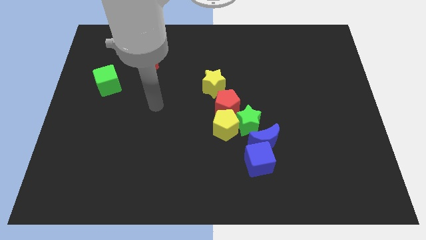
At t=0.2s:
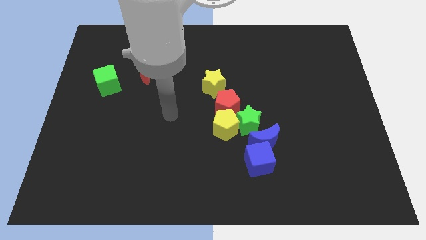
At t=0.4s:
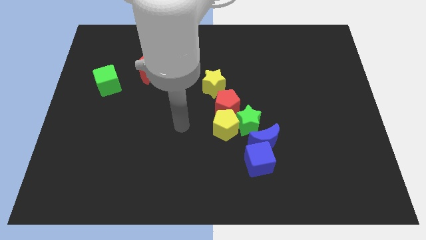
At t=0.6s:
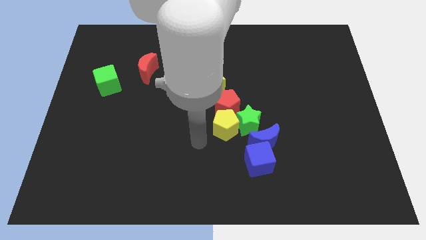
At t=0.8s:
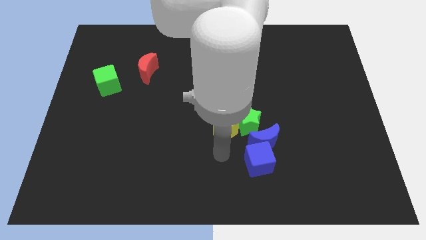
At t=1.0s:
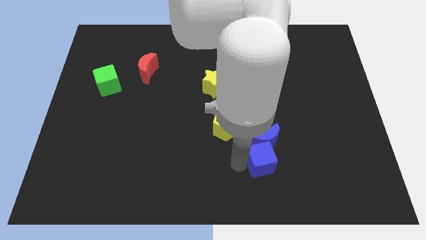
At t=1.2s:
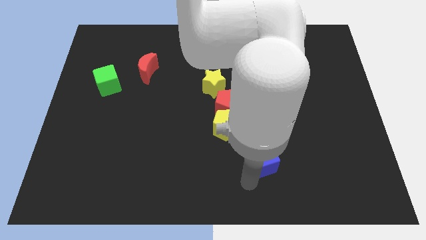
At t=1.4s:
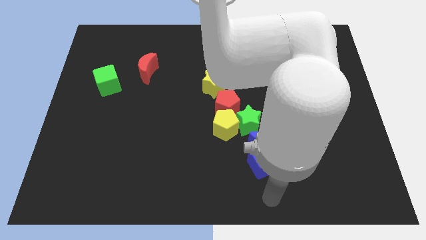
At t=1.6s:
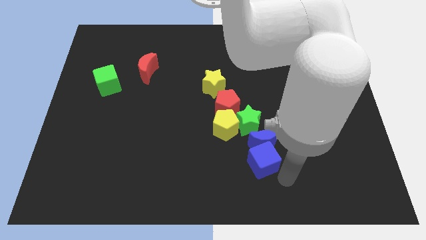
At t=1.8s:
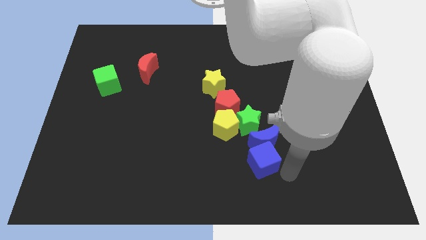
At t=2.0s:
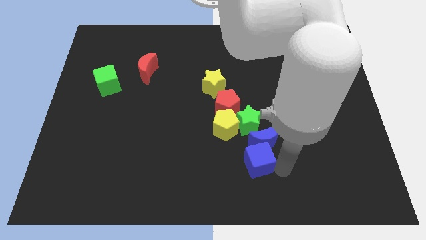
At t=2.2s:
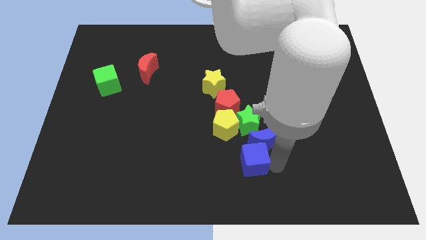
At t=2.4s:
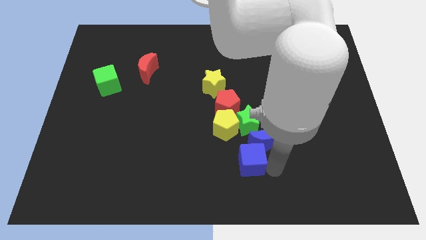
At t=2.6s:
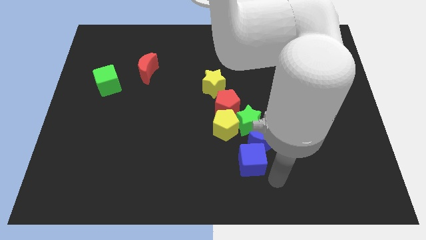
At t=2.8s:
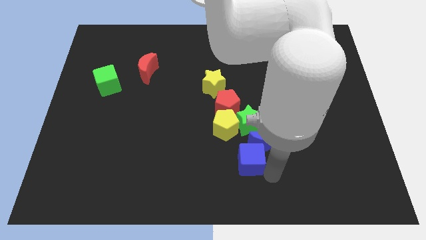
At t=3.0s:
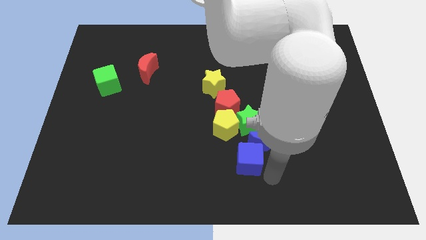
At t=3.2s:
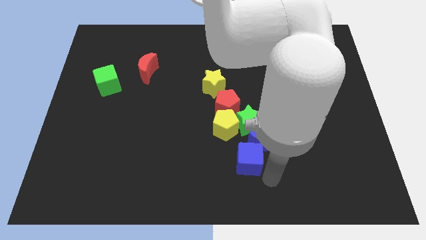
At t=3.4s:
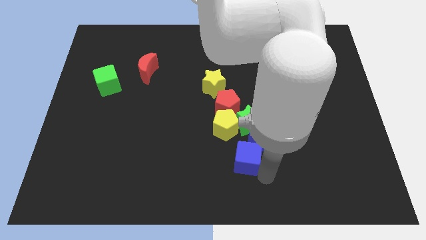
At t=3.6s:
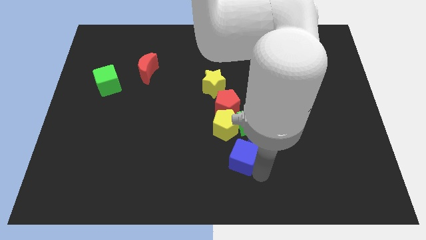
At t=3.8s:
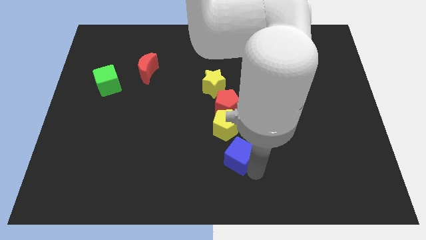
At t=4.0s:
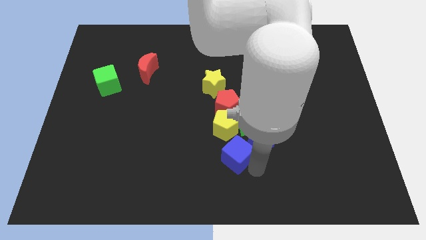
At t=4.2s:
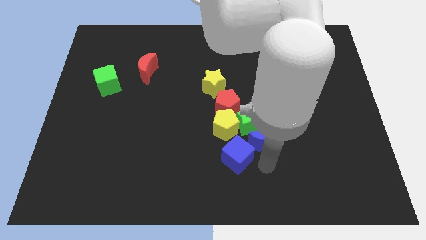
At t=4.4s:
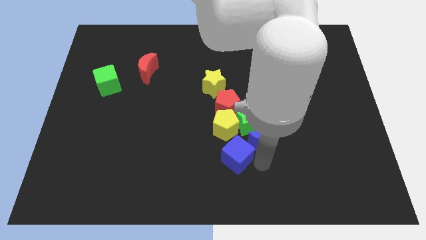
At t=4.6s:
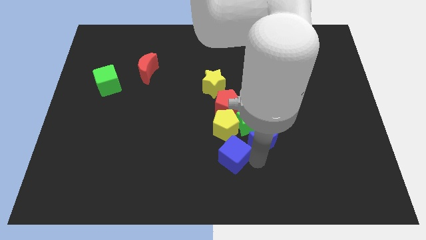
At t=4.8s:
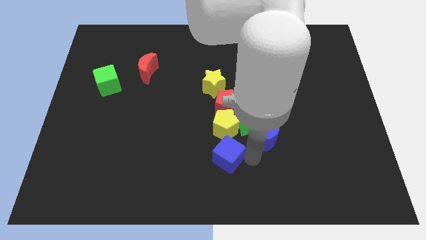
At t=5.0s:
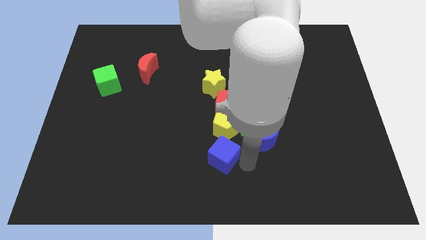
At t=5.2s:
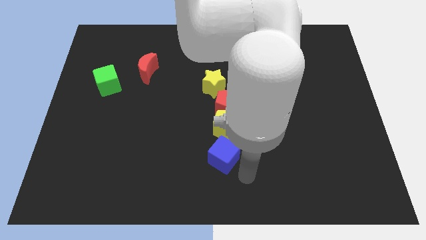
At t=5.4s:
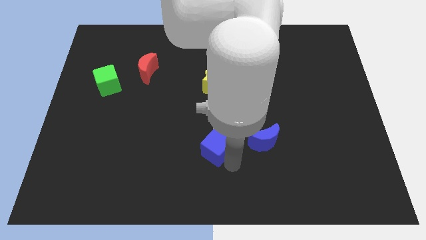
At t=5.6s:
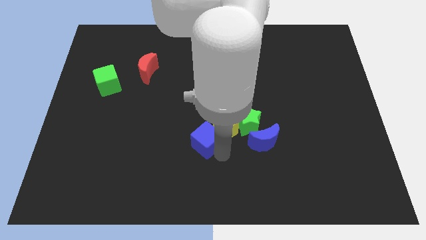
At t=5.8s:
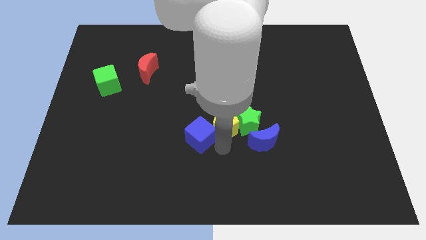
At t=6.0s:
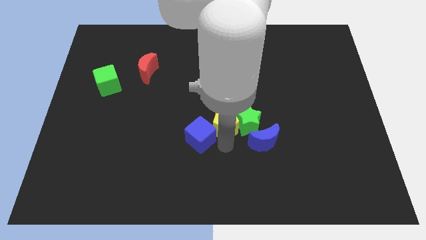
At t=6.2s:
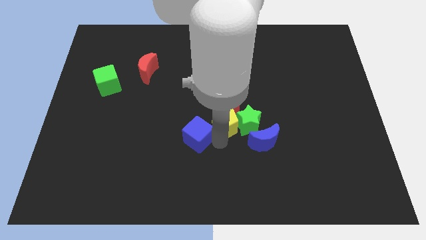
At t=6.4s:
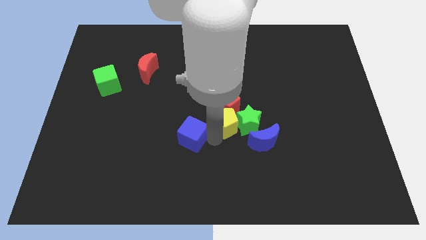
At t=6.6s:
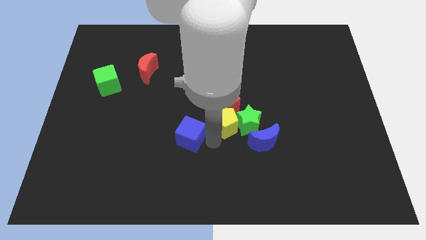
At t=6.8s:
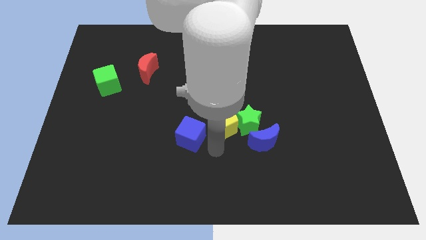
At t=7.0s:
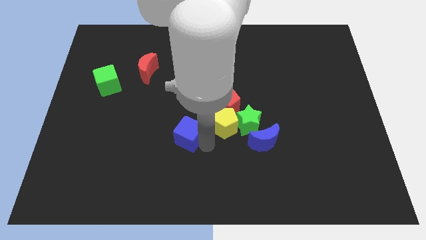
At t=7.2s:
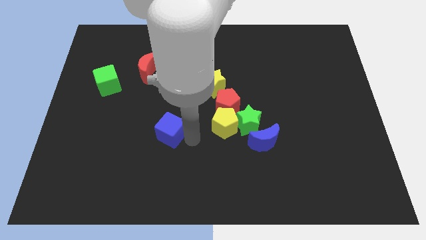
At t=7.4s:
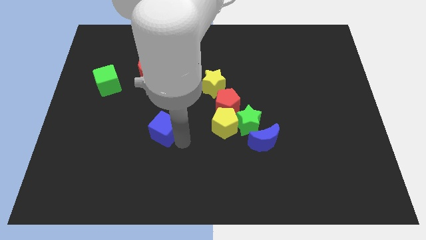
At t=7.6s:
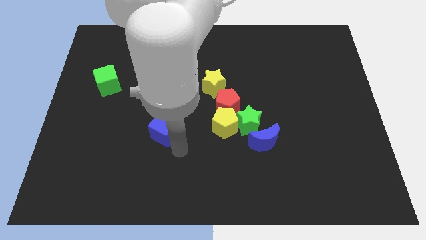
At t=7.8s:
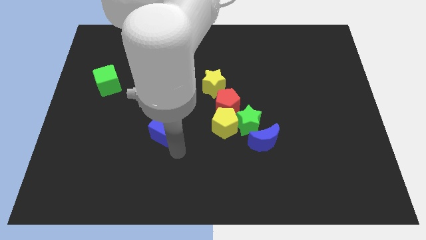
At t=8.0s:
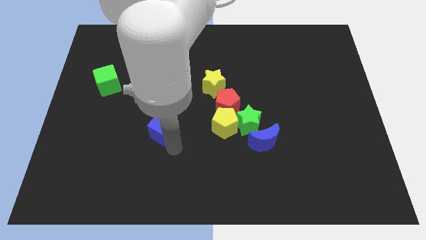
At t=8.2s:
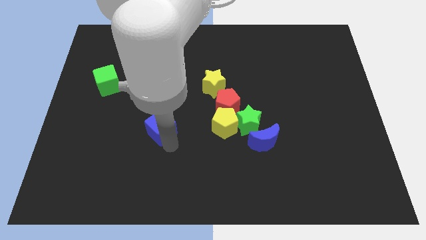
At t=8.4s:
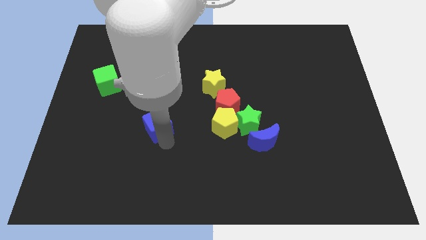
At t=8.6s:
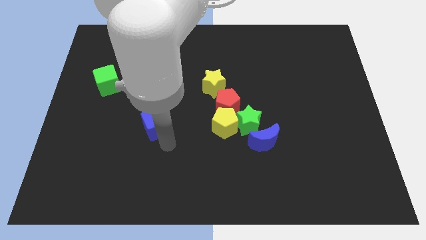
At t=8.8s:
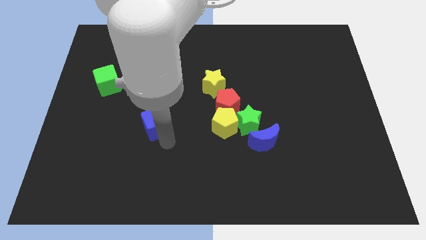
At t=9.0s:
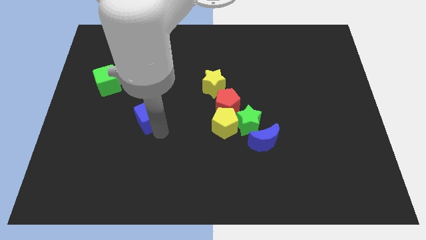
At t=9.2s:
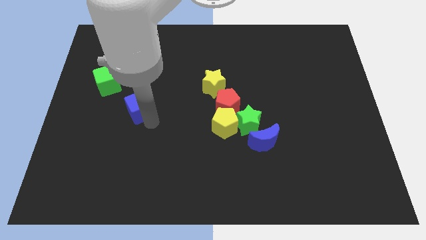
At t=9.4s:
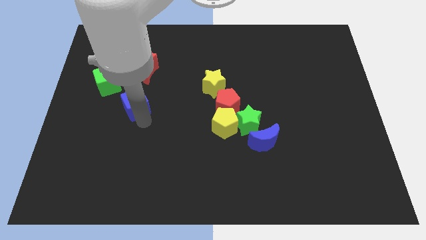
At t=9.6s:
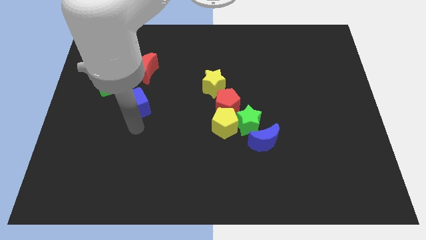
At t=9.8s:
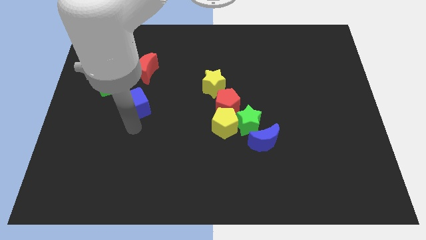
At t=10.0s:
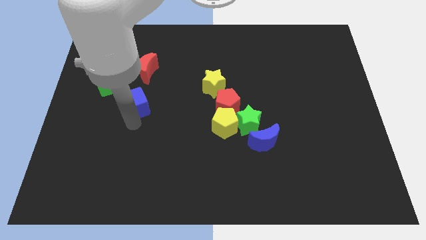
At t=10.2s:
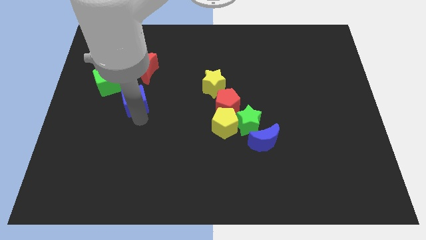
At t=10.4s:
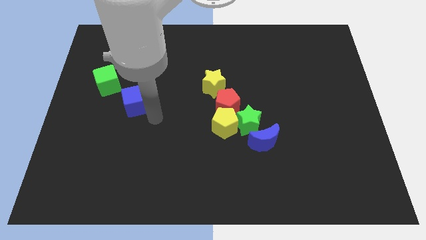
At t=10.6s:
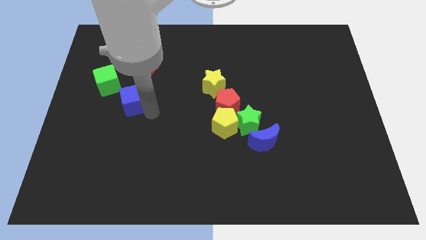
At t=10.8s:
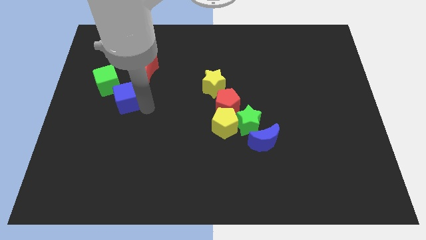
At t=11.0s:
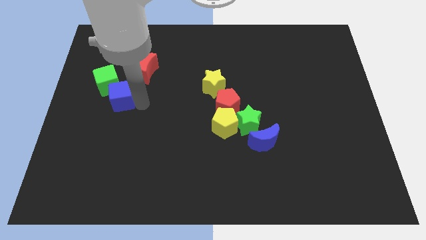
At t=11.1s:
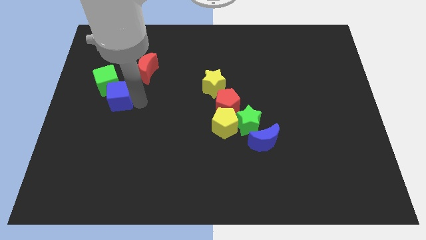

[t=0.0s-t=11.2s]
move the blue cube next to the green cube

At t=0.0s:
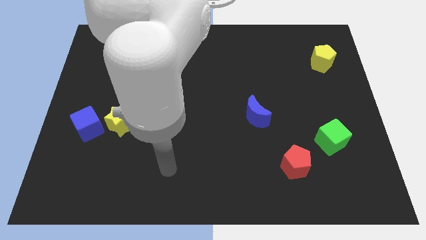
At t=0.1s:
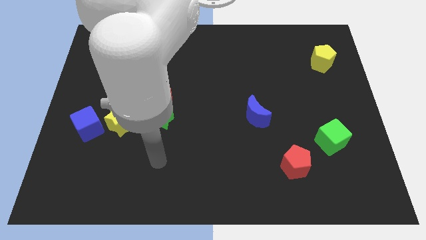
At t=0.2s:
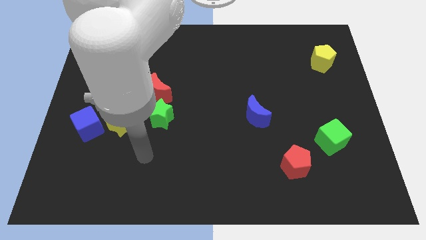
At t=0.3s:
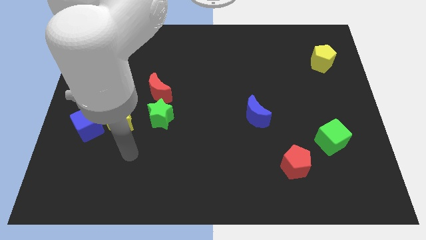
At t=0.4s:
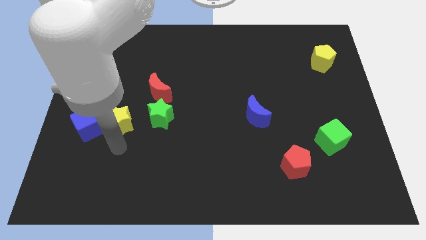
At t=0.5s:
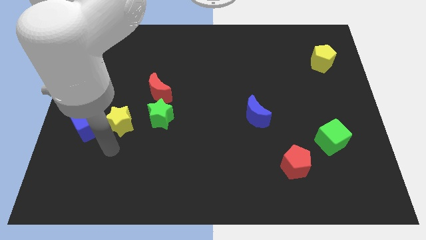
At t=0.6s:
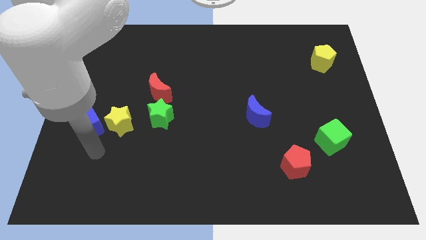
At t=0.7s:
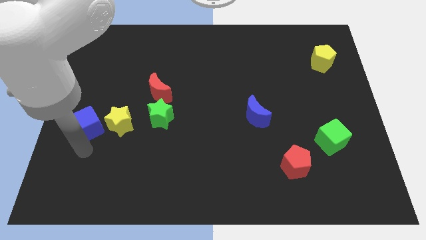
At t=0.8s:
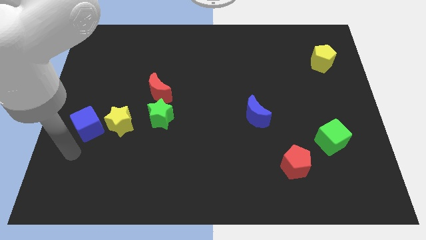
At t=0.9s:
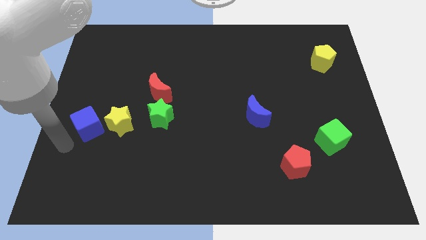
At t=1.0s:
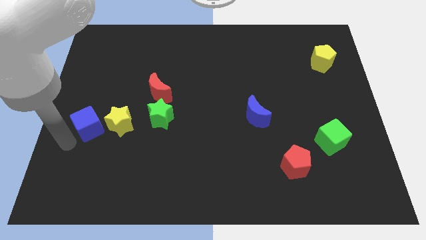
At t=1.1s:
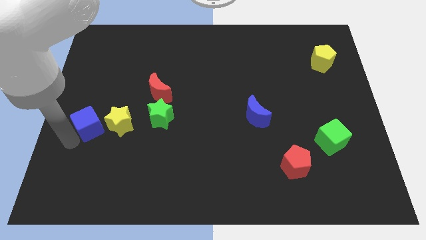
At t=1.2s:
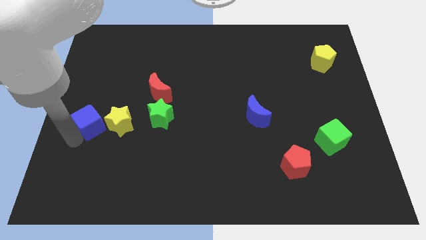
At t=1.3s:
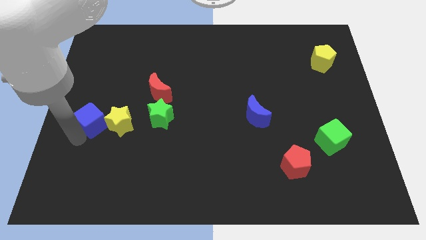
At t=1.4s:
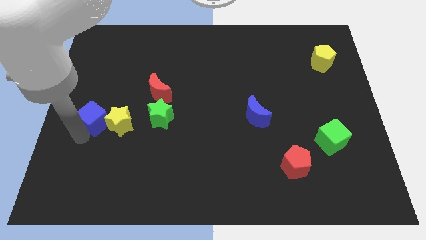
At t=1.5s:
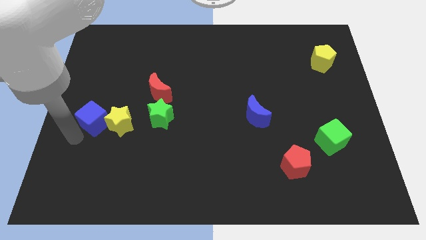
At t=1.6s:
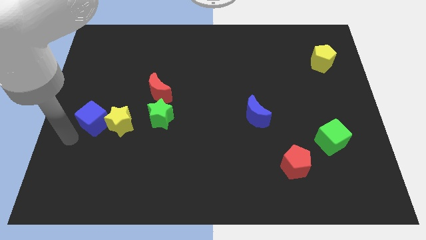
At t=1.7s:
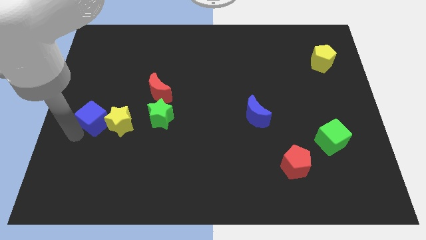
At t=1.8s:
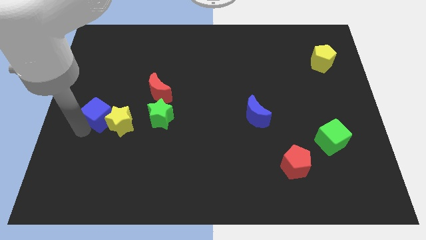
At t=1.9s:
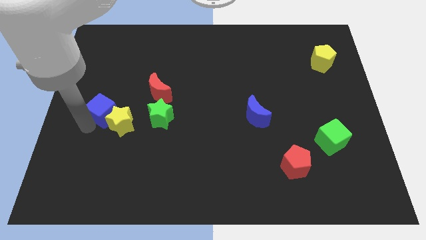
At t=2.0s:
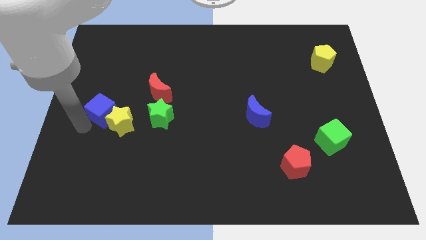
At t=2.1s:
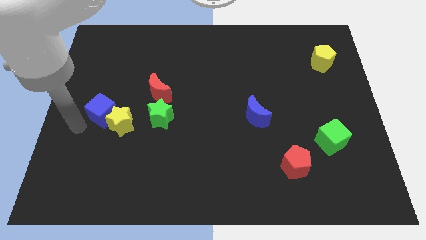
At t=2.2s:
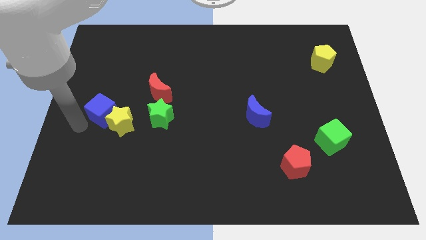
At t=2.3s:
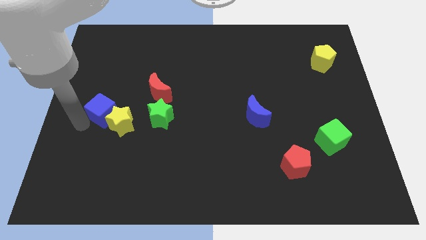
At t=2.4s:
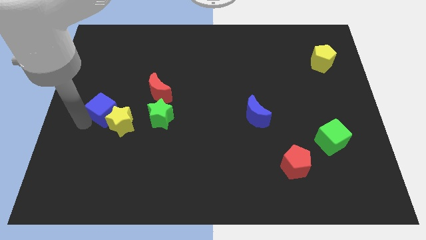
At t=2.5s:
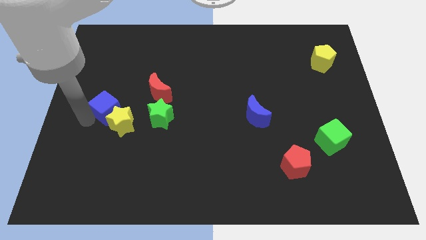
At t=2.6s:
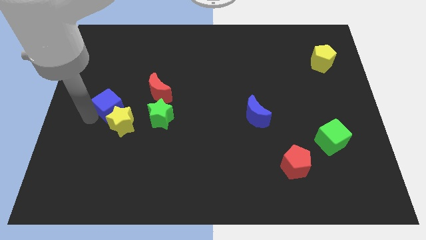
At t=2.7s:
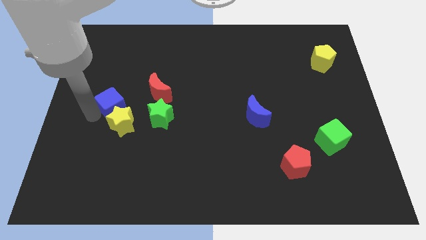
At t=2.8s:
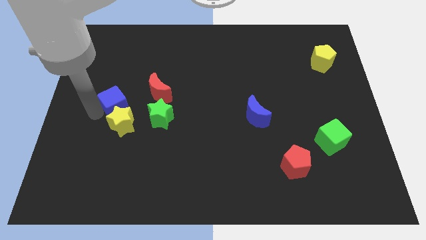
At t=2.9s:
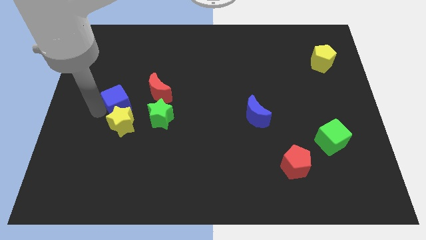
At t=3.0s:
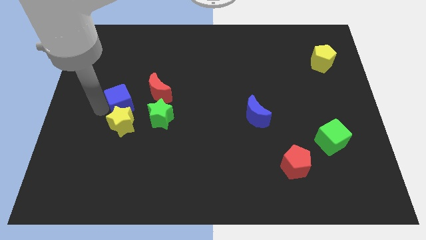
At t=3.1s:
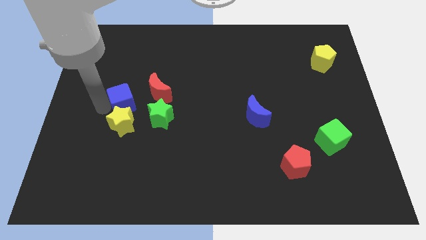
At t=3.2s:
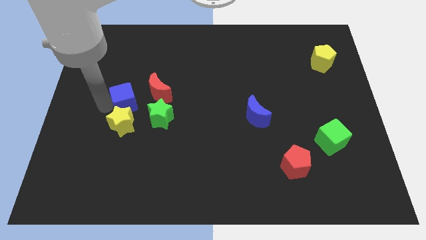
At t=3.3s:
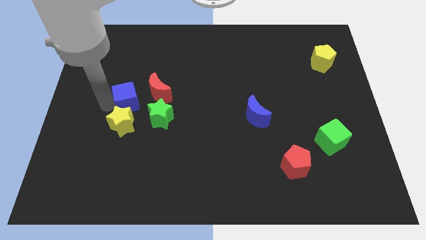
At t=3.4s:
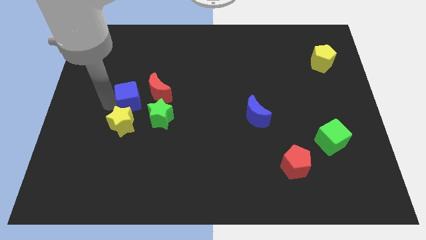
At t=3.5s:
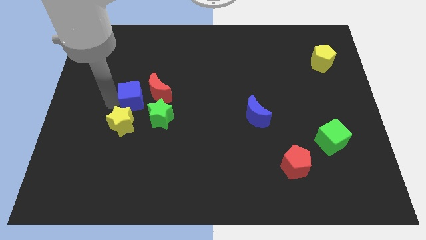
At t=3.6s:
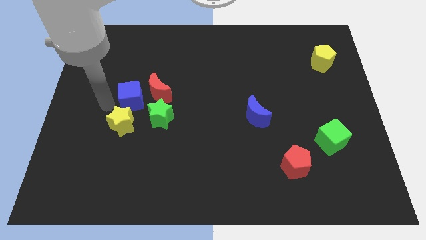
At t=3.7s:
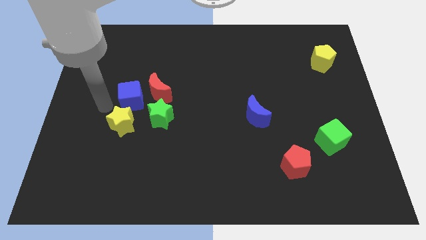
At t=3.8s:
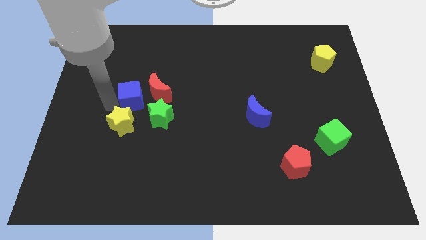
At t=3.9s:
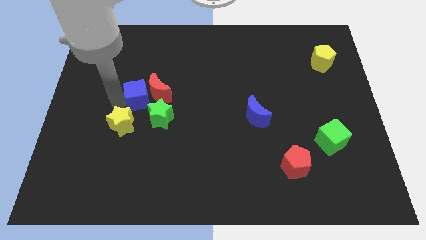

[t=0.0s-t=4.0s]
push the blue cube next to the red moon
